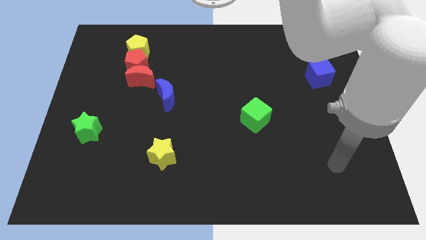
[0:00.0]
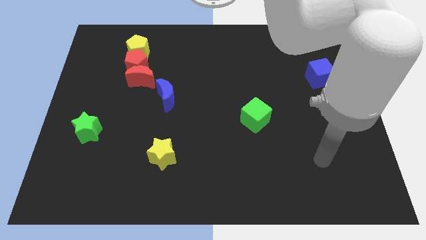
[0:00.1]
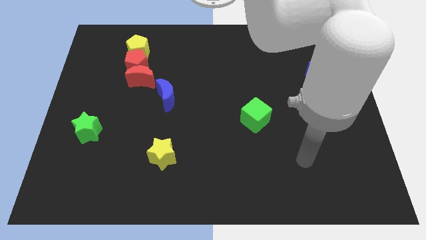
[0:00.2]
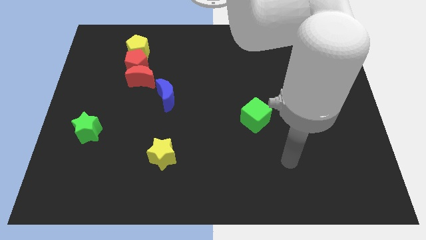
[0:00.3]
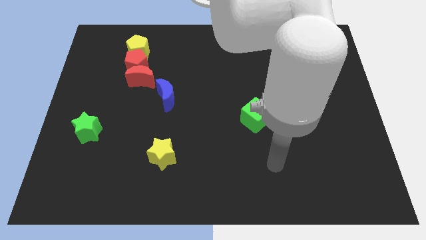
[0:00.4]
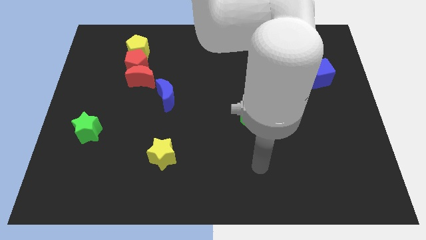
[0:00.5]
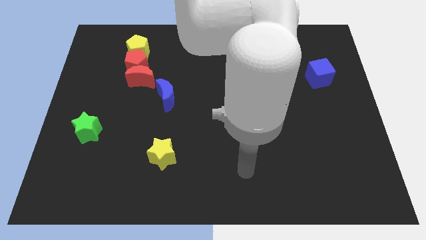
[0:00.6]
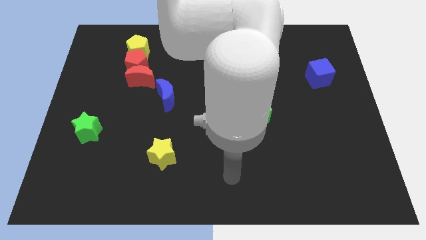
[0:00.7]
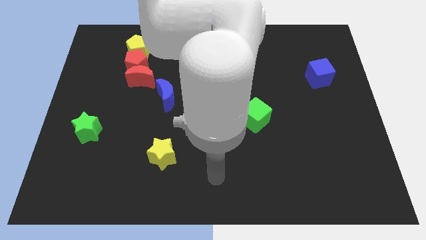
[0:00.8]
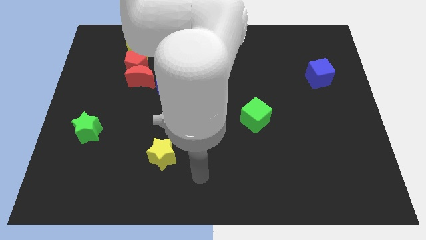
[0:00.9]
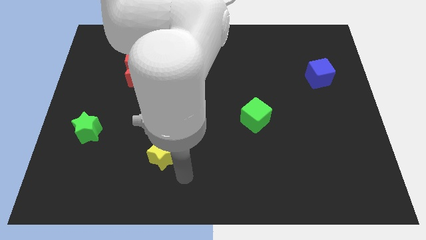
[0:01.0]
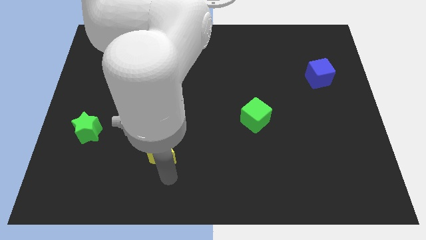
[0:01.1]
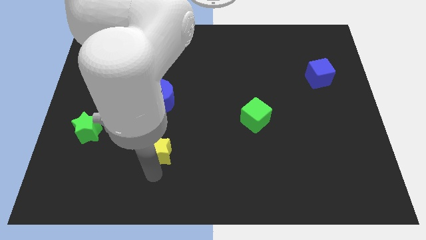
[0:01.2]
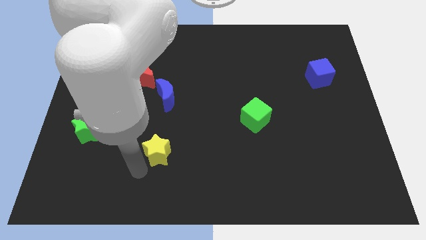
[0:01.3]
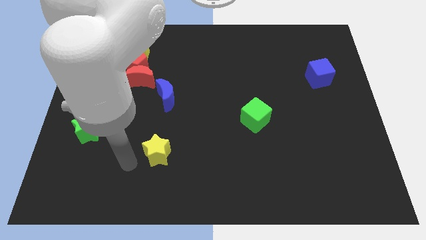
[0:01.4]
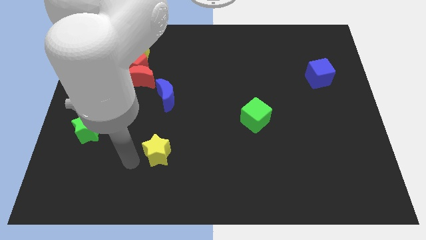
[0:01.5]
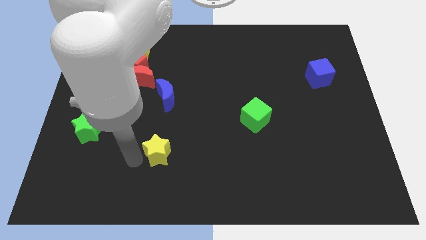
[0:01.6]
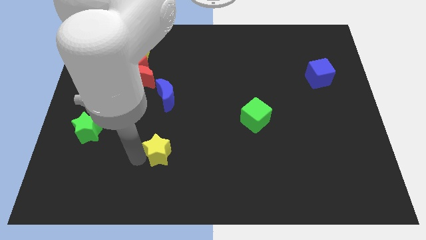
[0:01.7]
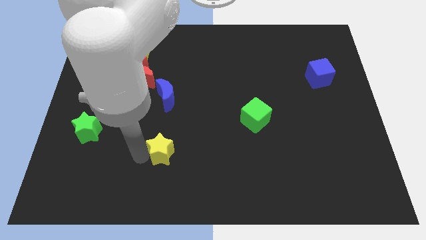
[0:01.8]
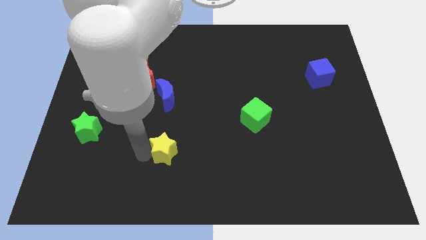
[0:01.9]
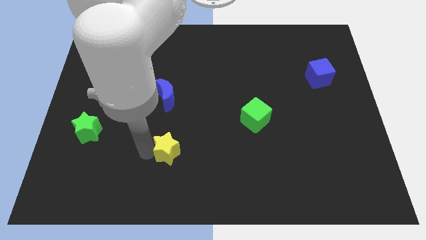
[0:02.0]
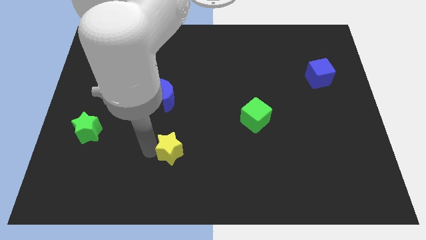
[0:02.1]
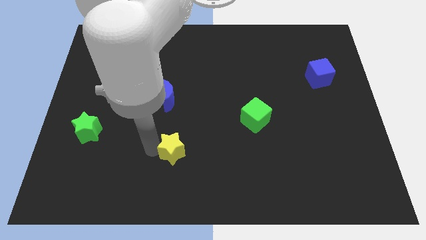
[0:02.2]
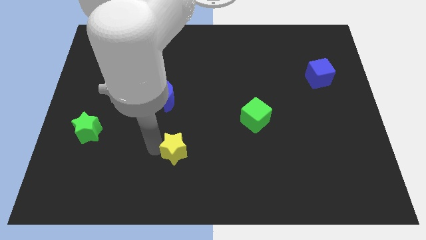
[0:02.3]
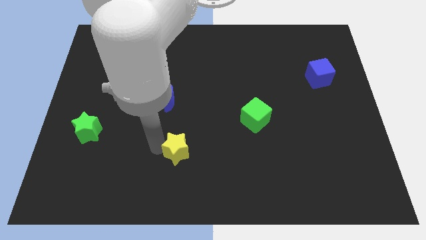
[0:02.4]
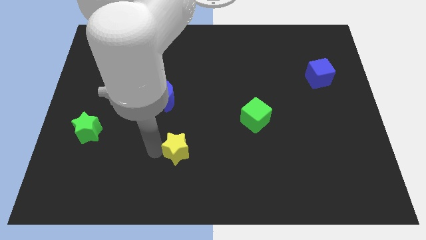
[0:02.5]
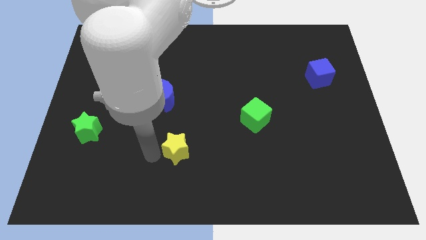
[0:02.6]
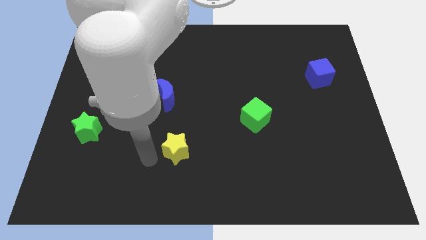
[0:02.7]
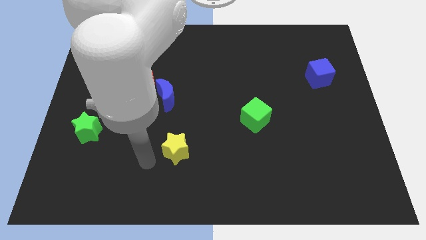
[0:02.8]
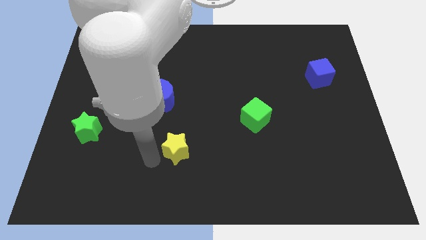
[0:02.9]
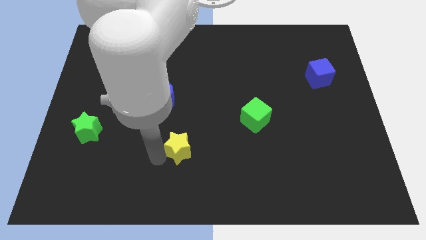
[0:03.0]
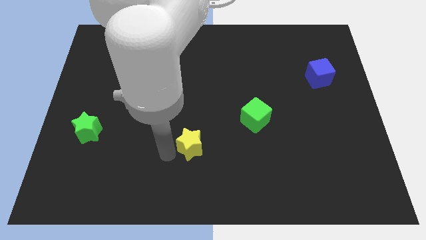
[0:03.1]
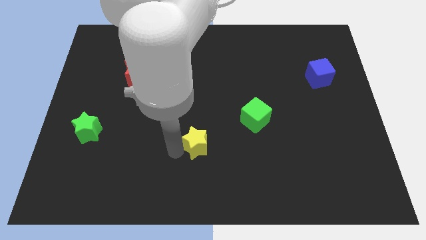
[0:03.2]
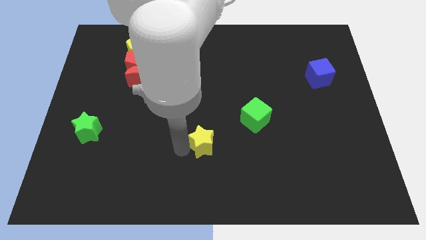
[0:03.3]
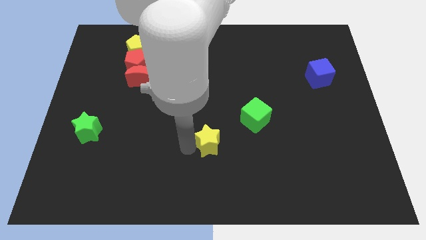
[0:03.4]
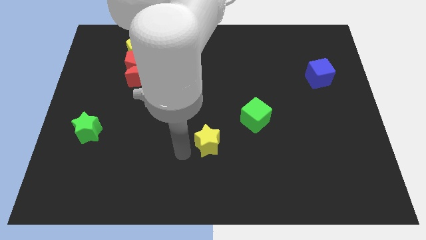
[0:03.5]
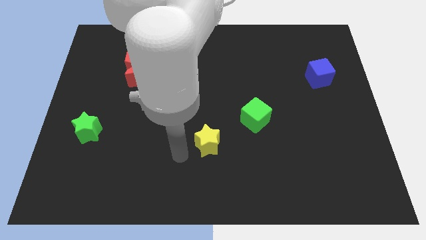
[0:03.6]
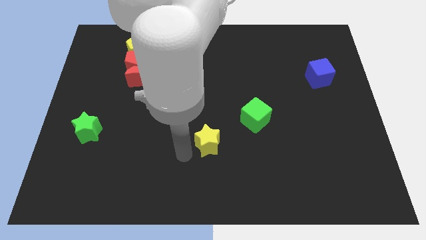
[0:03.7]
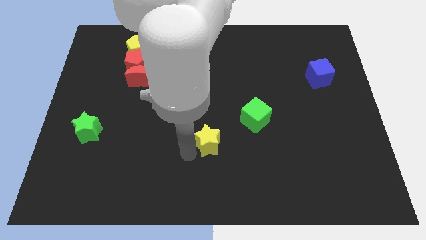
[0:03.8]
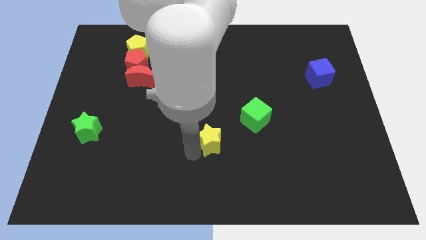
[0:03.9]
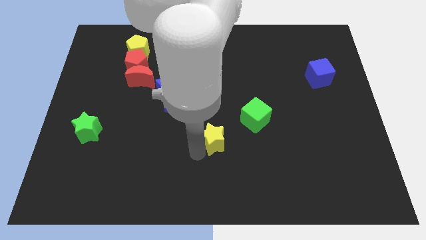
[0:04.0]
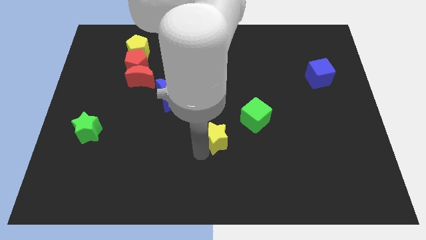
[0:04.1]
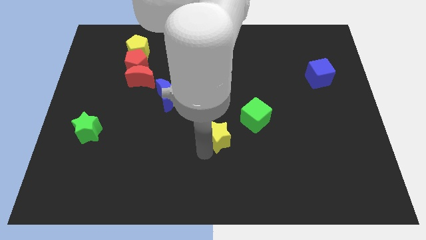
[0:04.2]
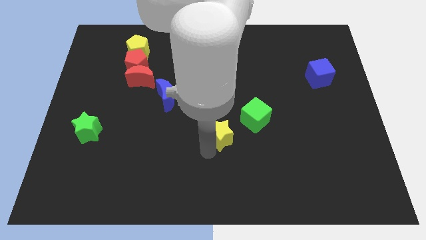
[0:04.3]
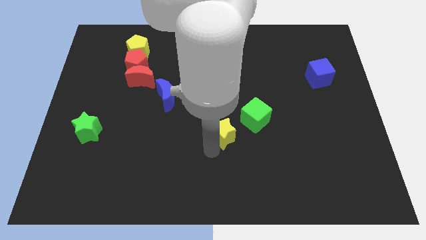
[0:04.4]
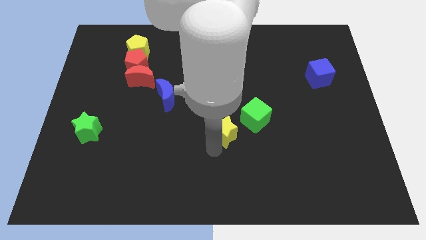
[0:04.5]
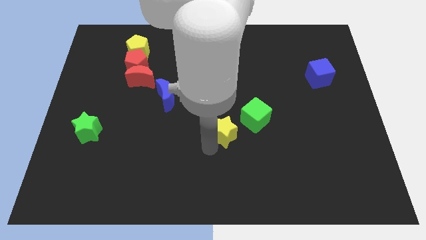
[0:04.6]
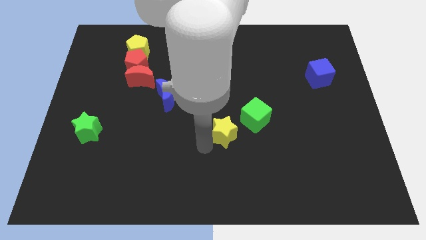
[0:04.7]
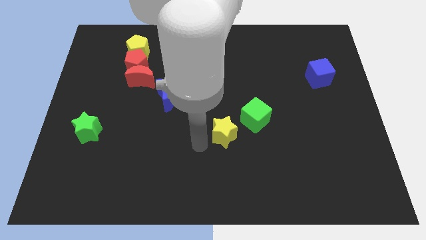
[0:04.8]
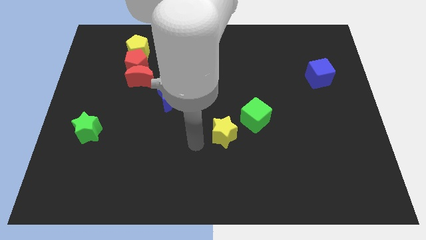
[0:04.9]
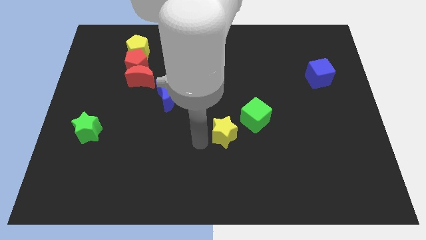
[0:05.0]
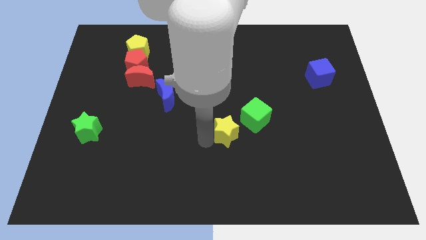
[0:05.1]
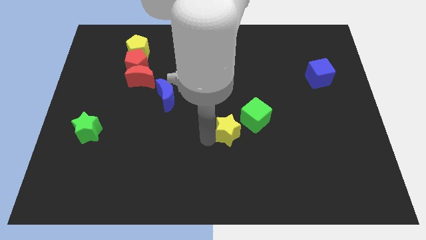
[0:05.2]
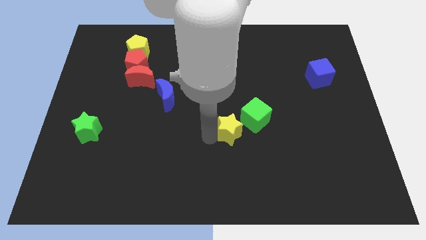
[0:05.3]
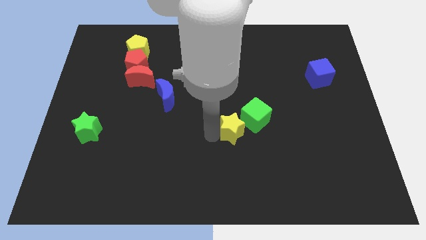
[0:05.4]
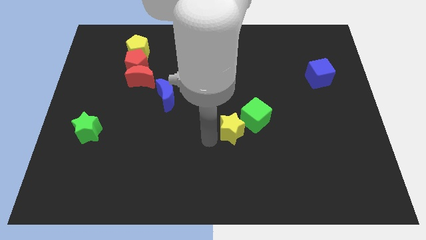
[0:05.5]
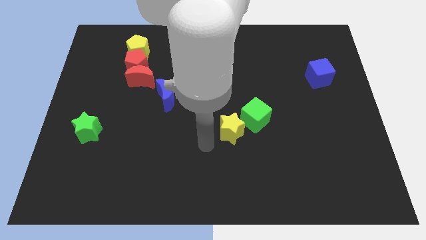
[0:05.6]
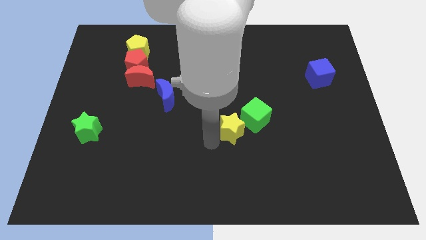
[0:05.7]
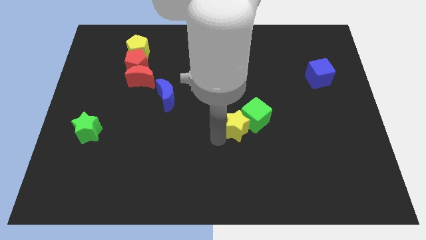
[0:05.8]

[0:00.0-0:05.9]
push the yellow star close to the green cube

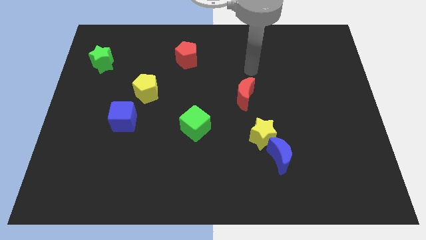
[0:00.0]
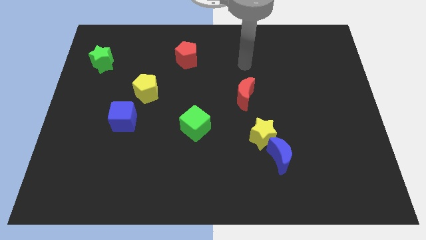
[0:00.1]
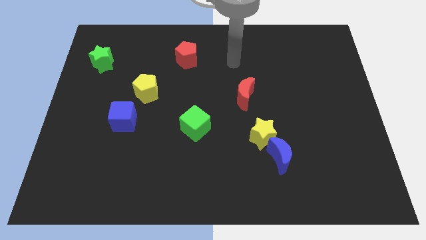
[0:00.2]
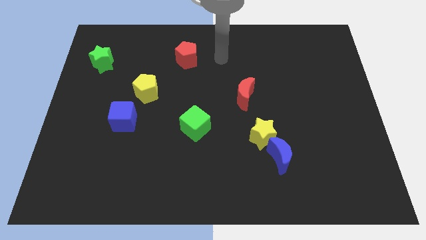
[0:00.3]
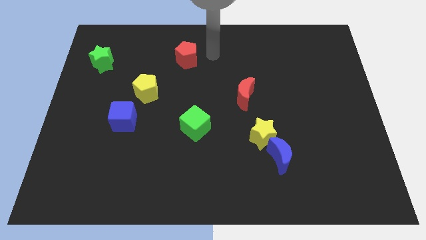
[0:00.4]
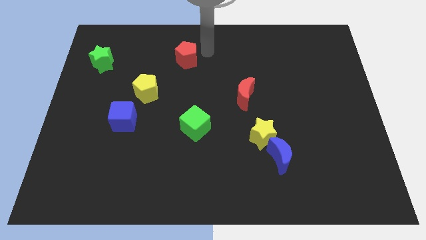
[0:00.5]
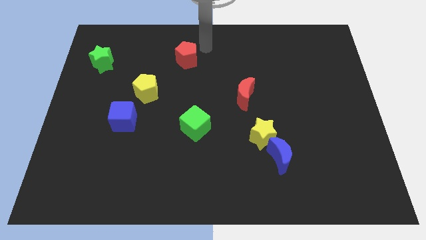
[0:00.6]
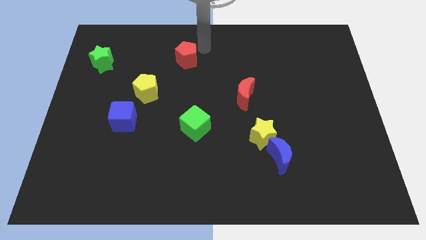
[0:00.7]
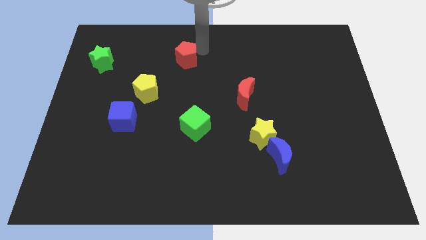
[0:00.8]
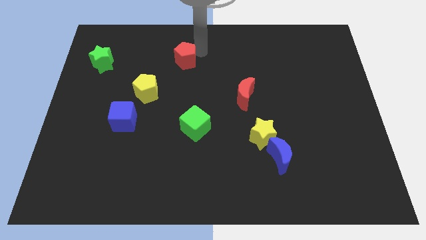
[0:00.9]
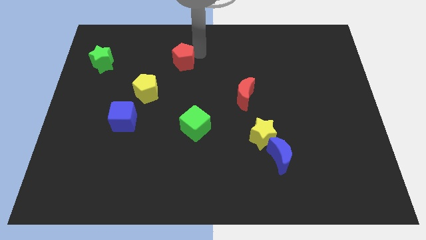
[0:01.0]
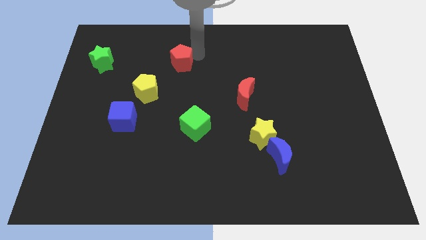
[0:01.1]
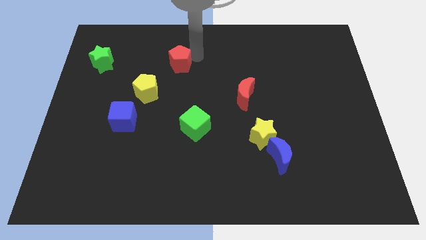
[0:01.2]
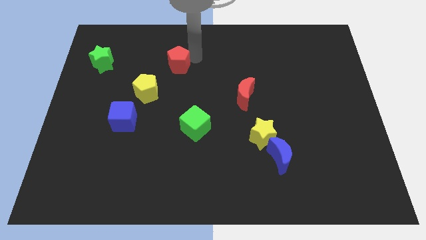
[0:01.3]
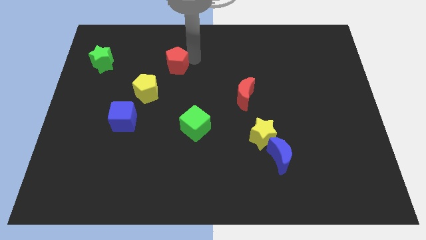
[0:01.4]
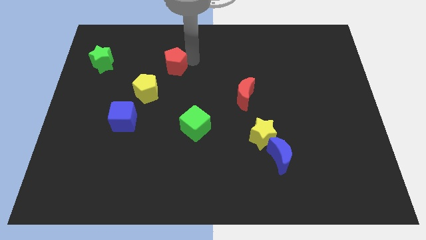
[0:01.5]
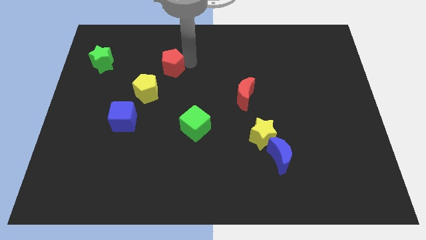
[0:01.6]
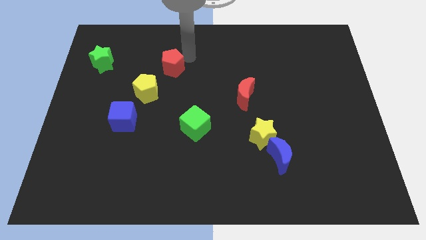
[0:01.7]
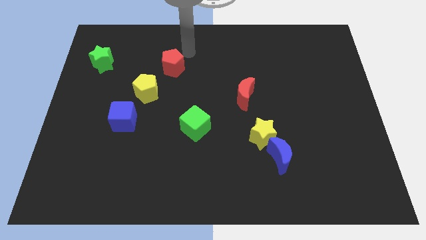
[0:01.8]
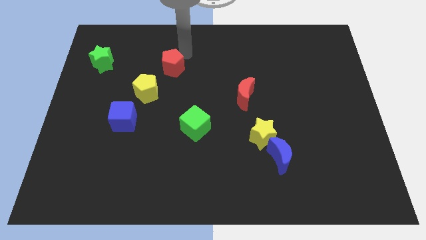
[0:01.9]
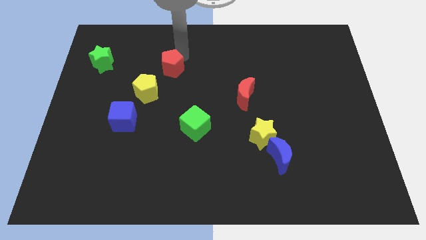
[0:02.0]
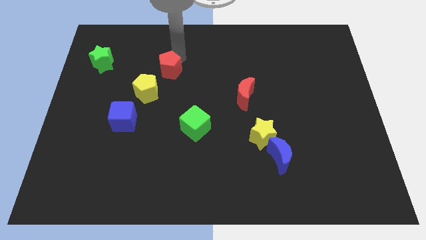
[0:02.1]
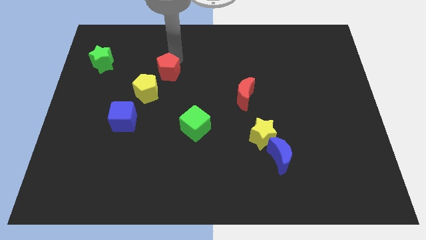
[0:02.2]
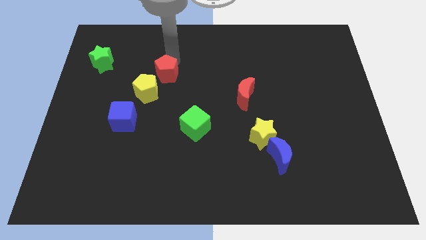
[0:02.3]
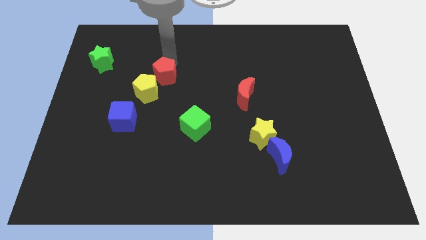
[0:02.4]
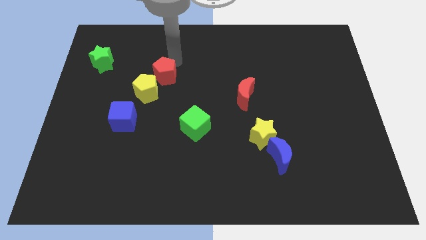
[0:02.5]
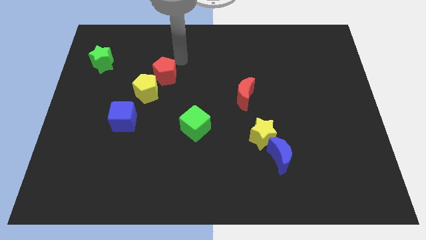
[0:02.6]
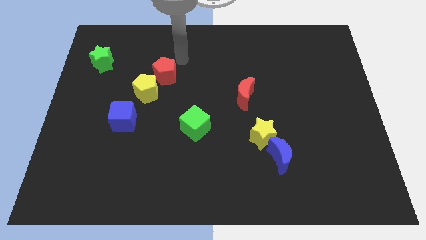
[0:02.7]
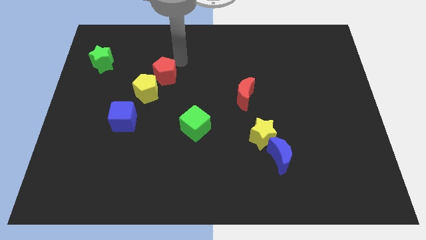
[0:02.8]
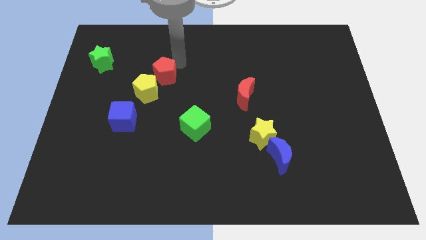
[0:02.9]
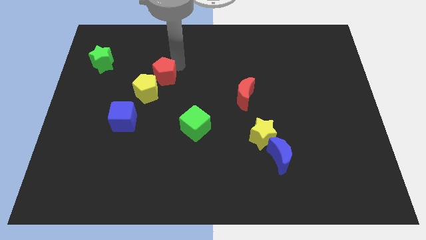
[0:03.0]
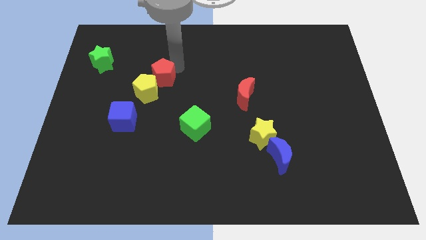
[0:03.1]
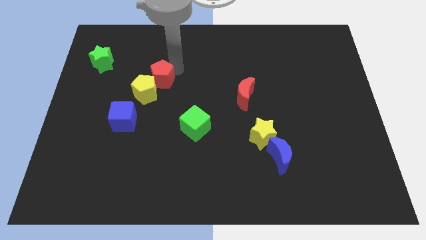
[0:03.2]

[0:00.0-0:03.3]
slide the red pentagon towards the yellow pentagon
